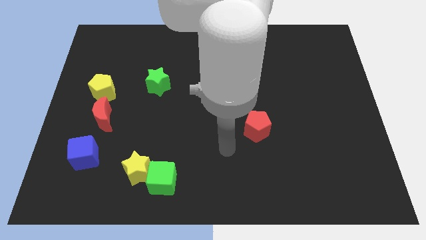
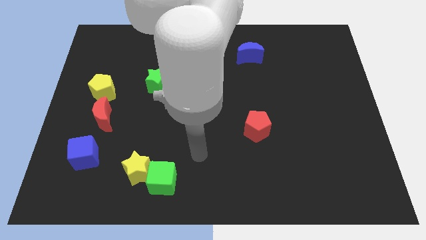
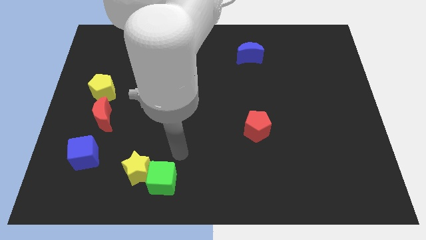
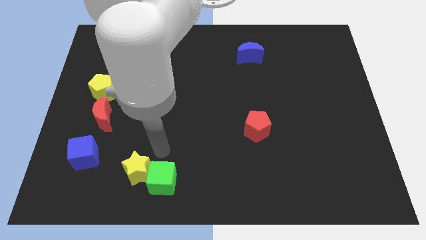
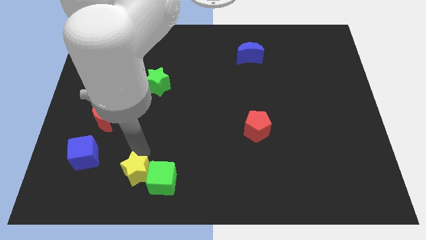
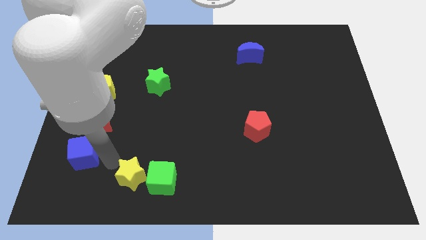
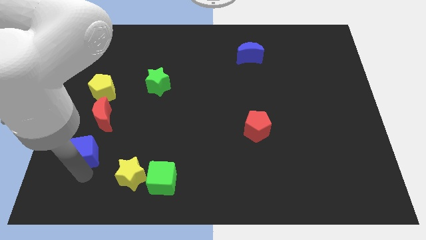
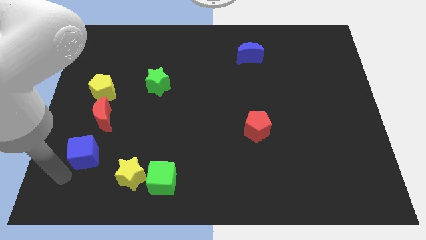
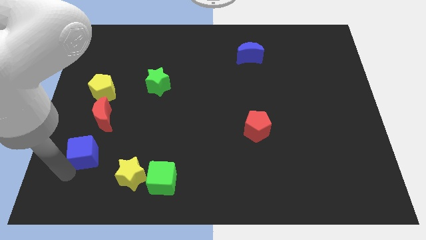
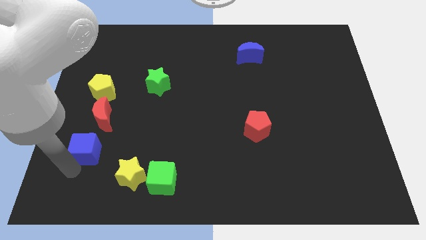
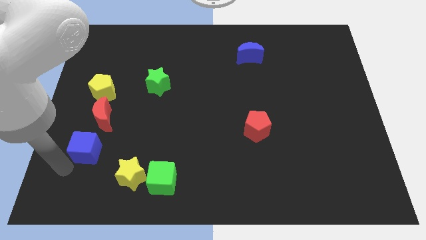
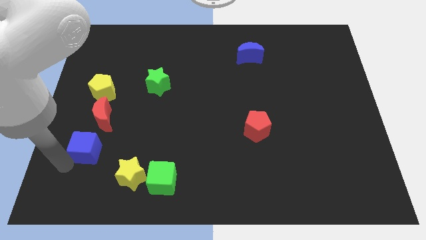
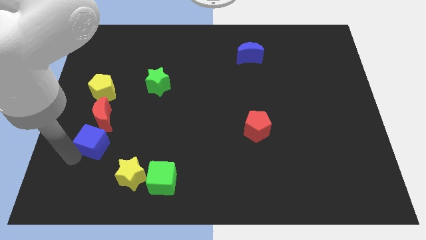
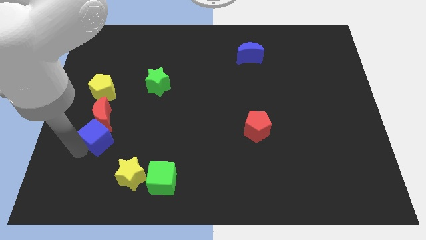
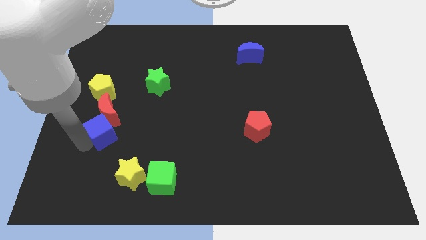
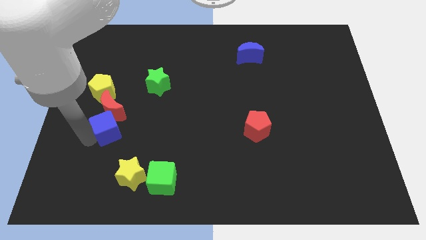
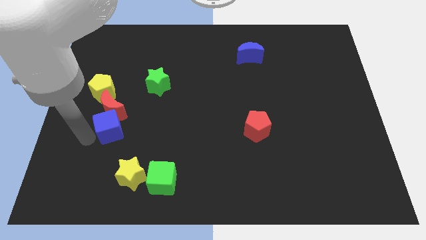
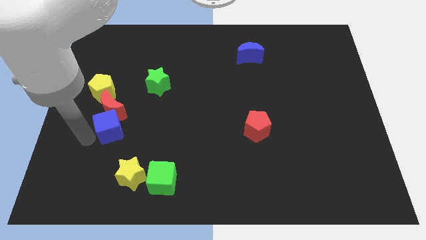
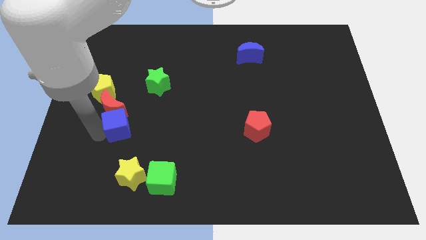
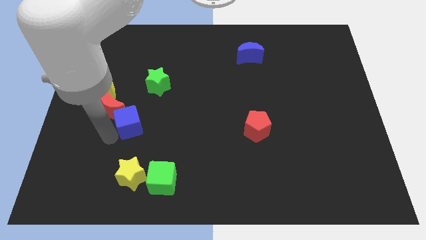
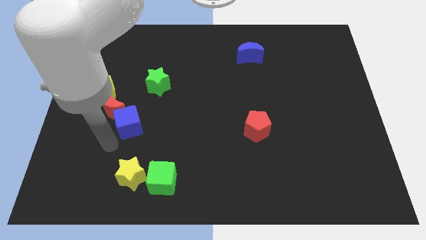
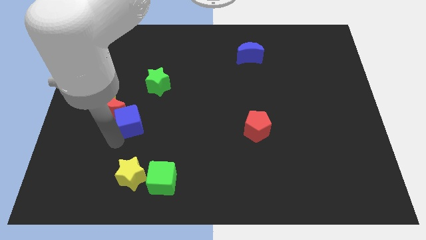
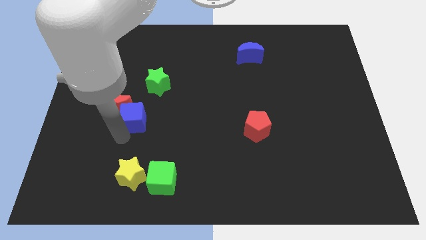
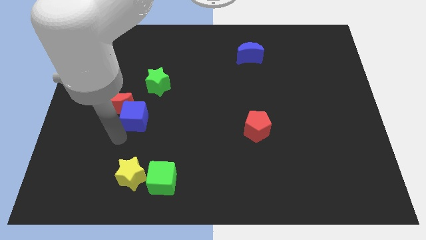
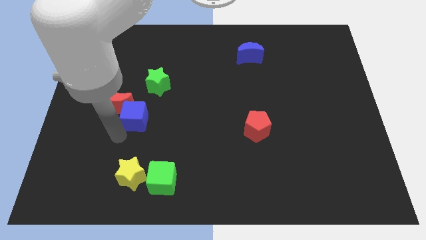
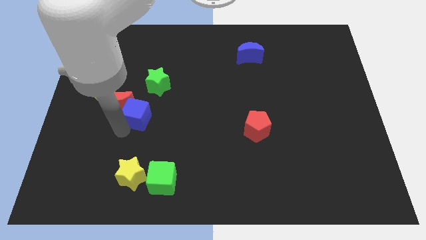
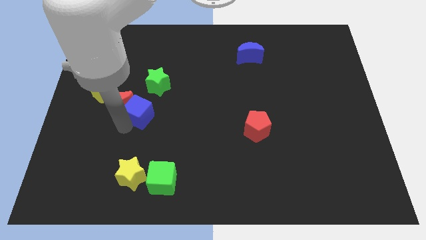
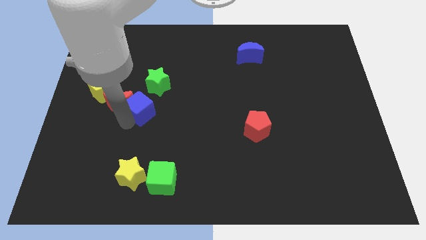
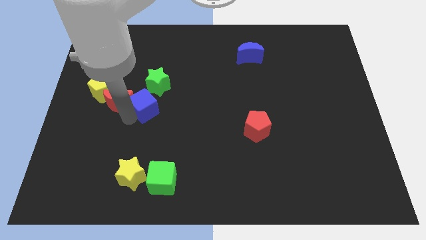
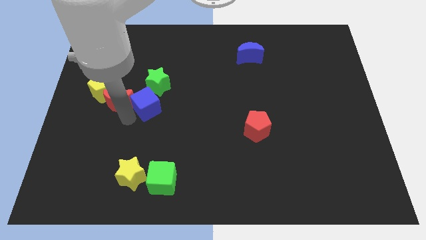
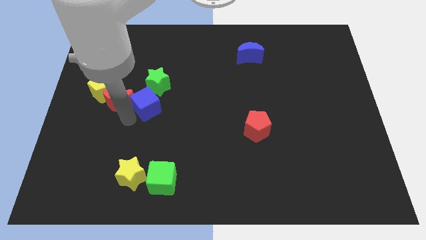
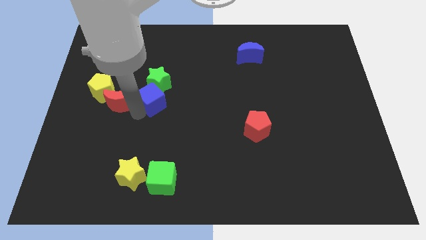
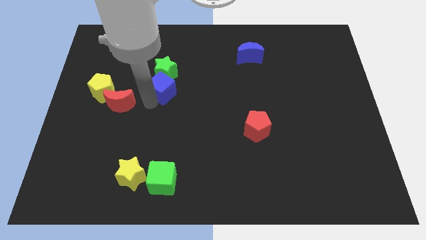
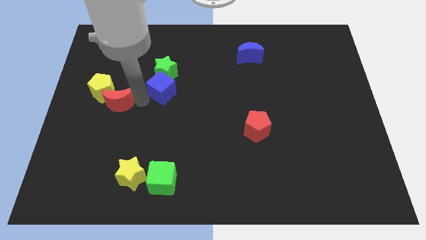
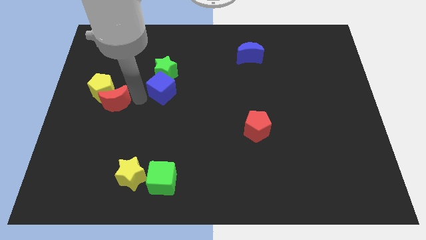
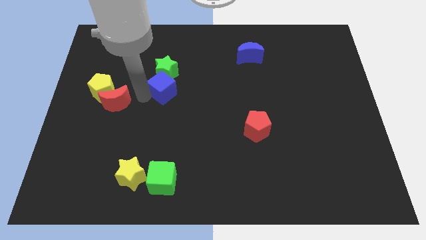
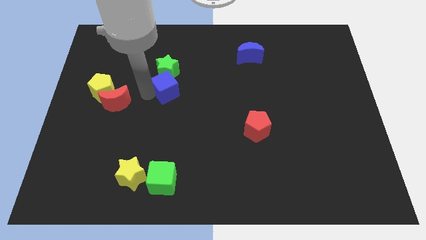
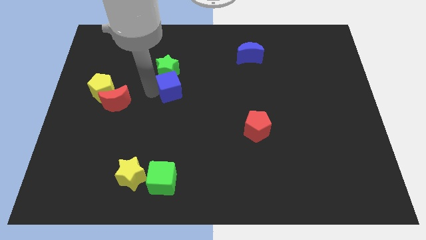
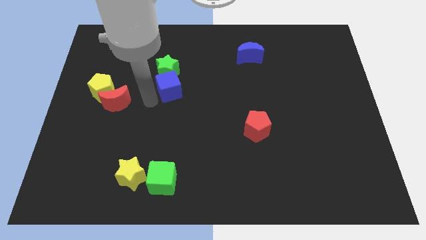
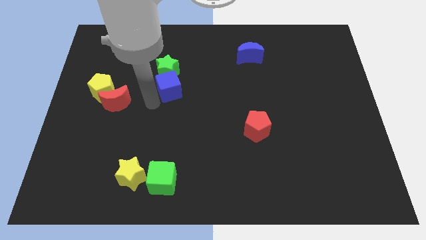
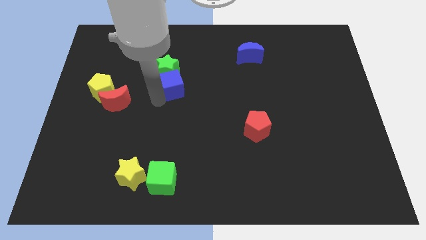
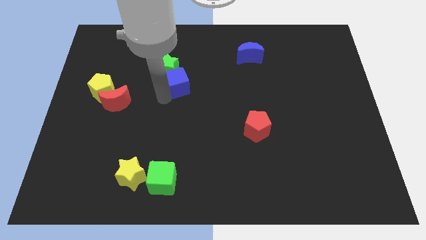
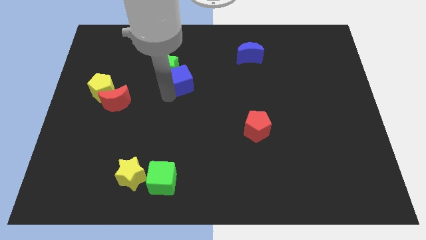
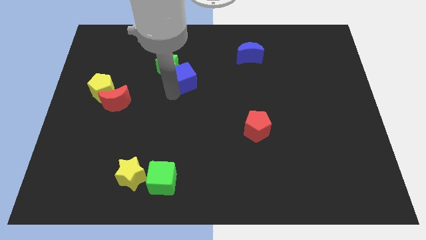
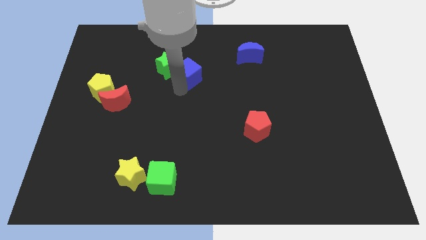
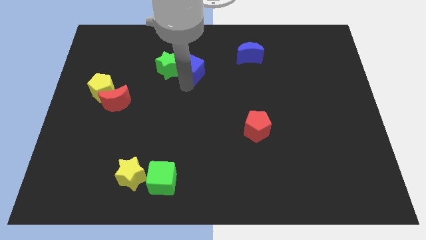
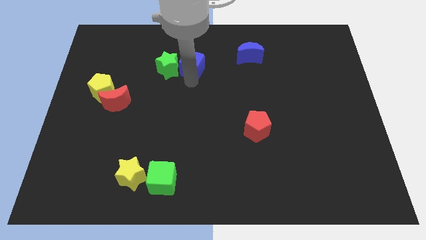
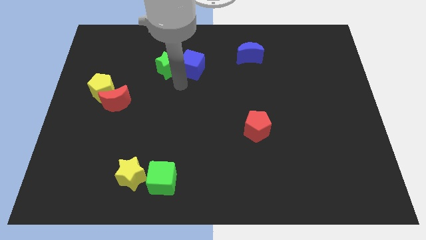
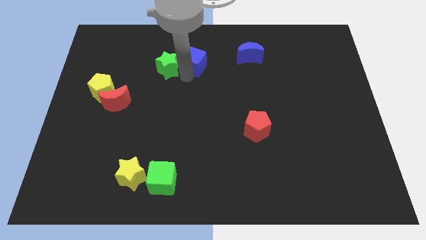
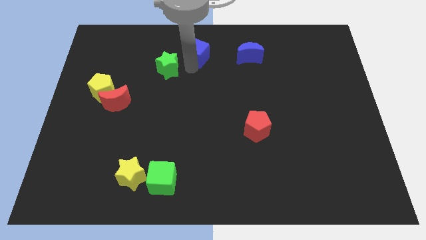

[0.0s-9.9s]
push the blue cube to the top side
